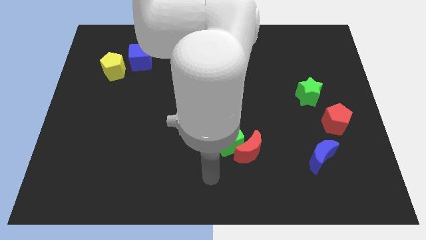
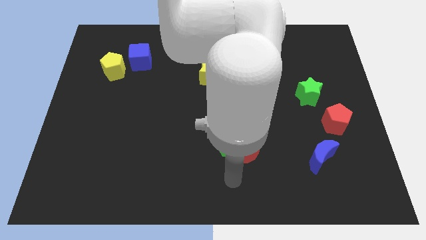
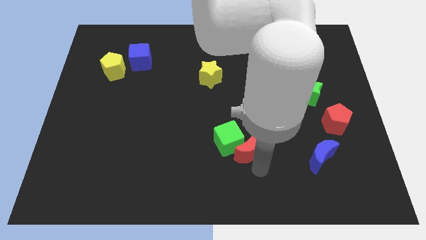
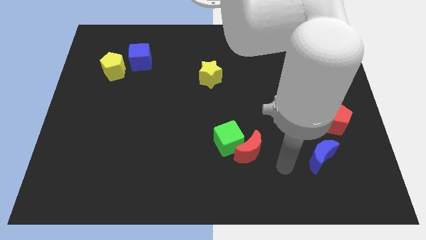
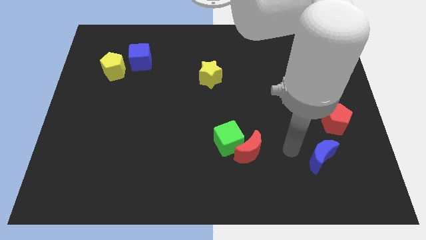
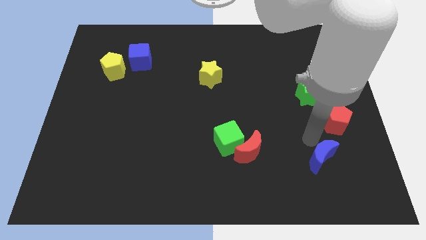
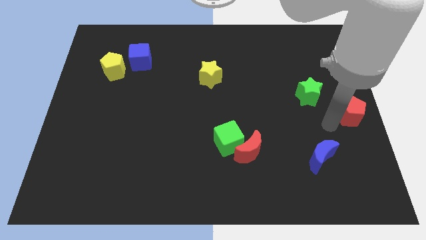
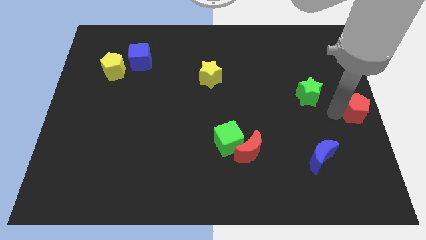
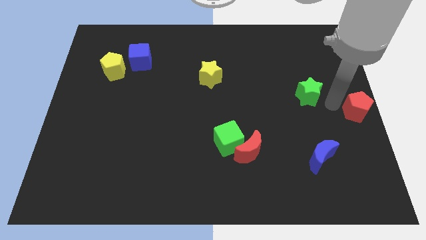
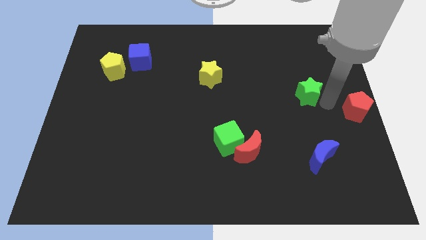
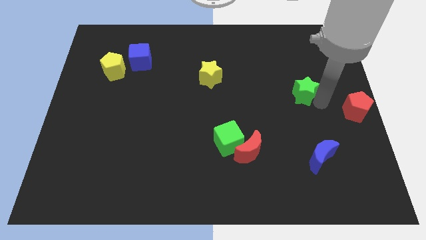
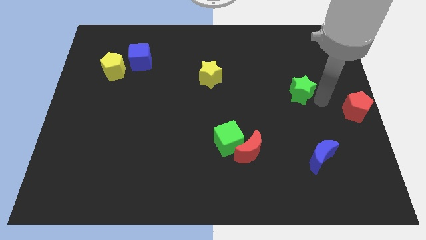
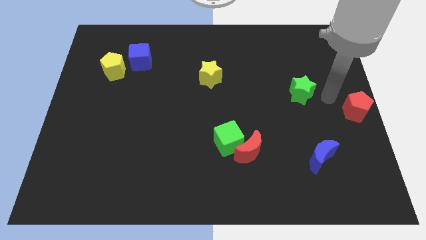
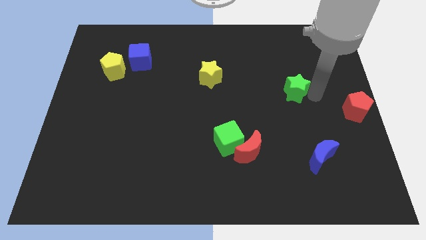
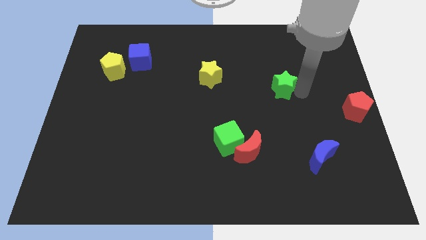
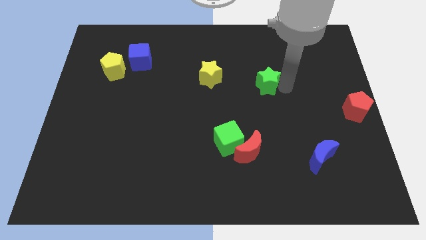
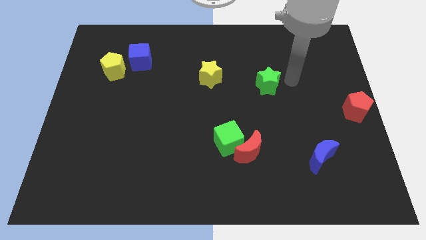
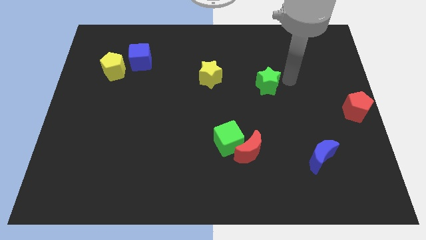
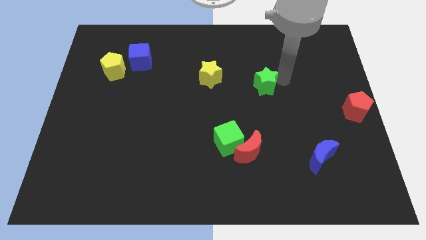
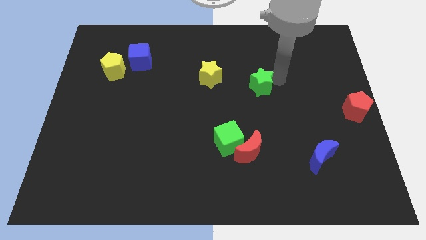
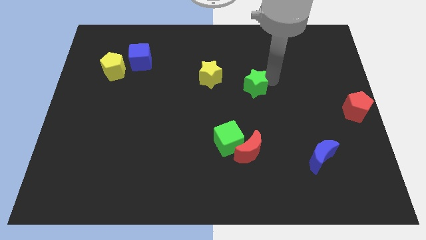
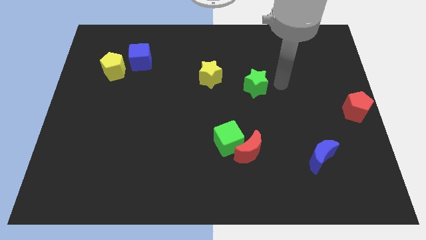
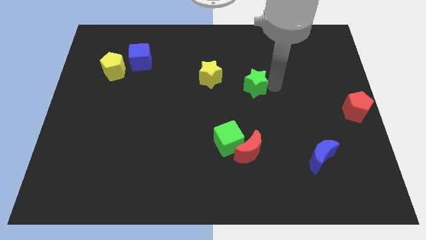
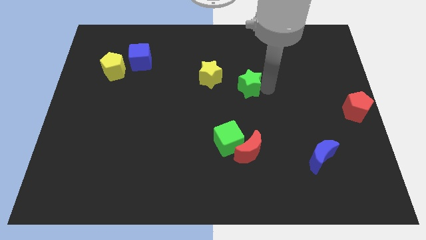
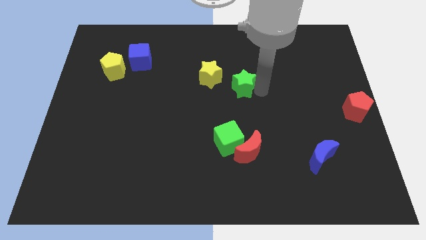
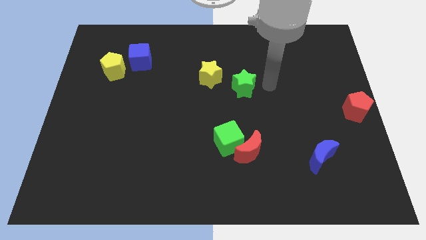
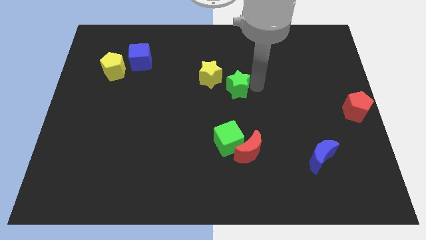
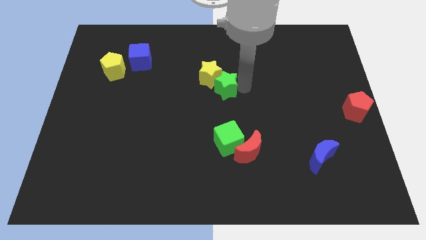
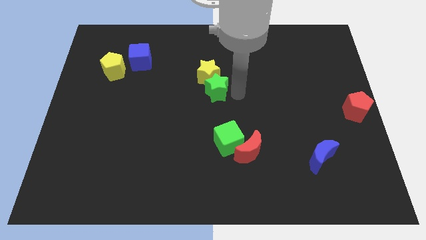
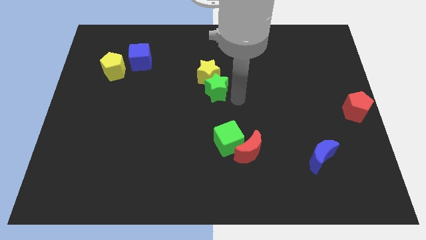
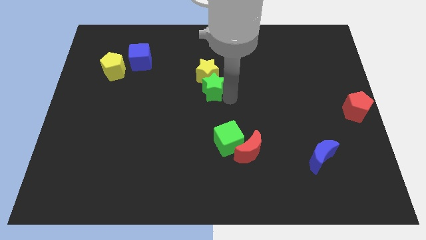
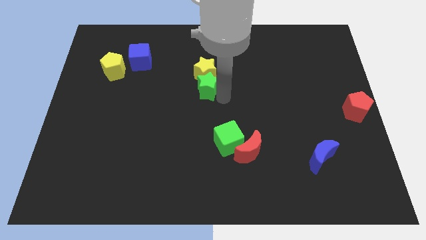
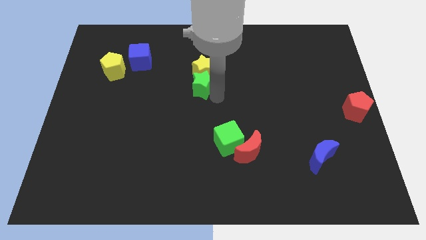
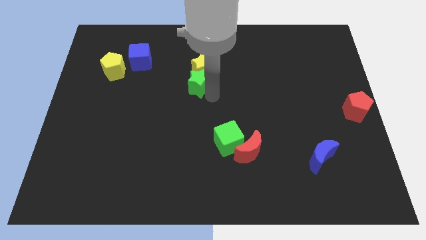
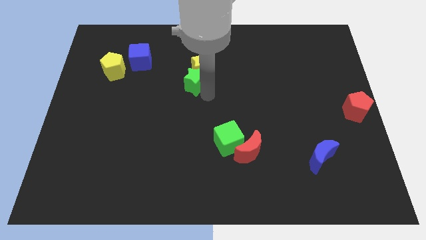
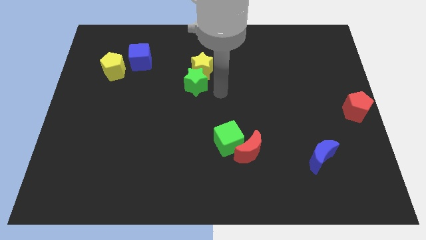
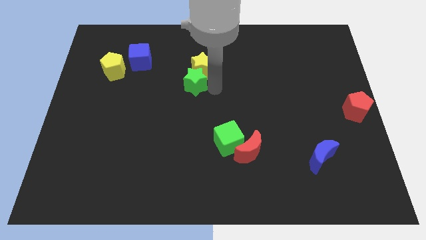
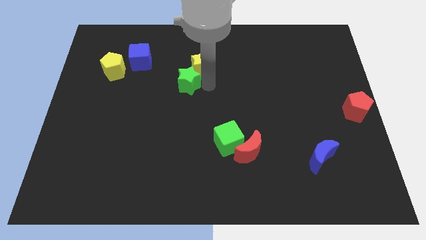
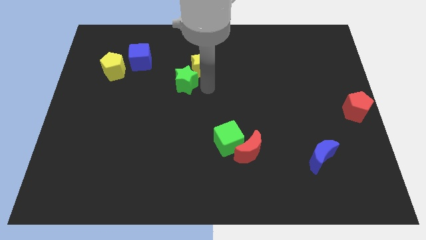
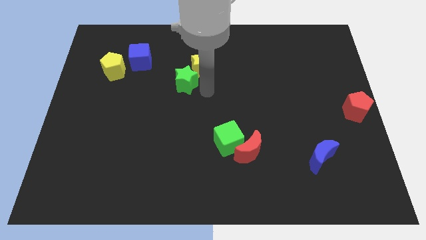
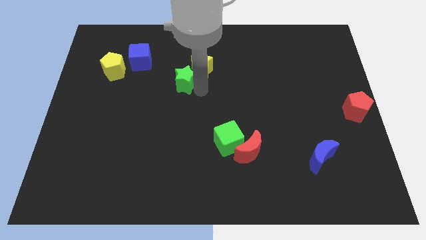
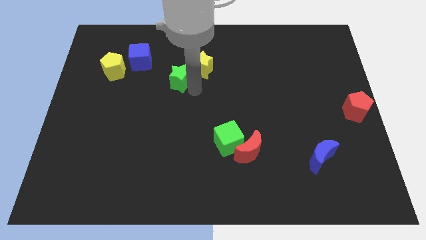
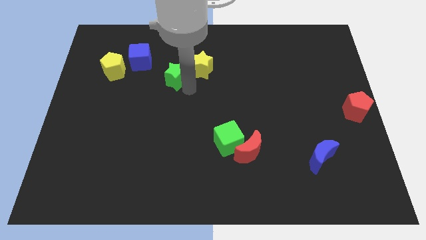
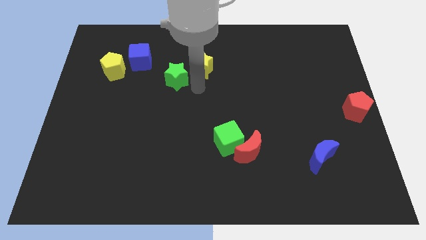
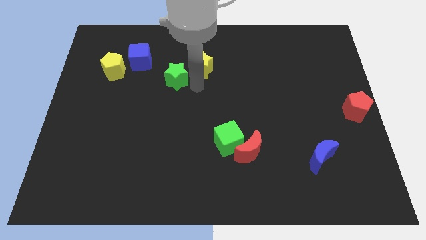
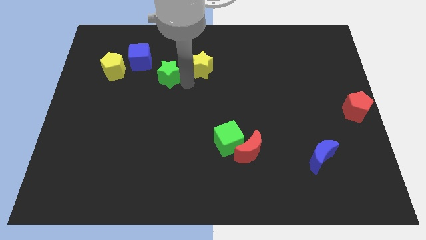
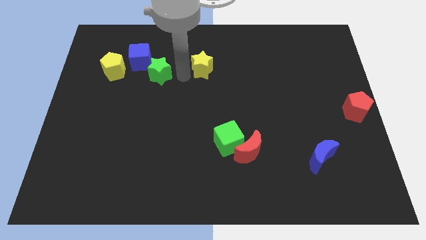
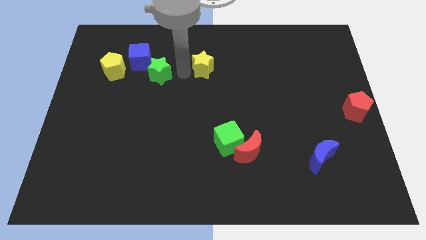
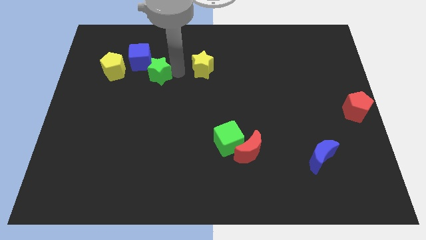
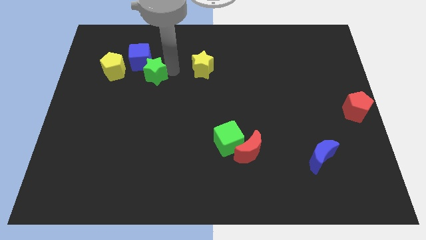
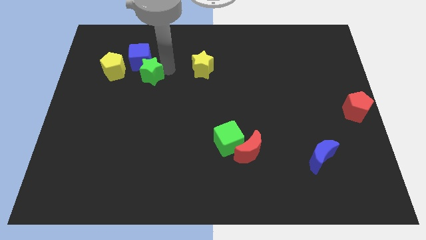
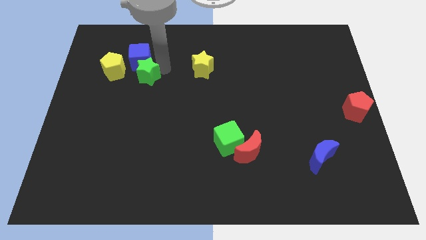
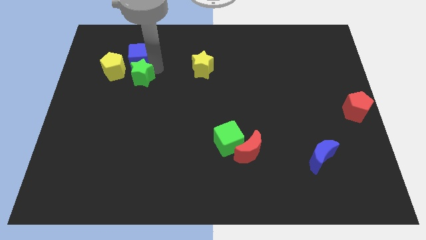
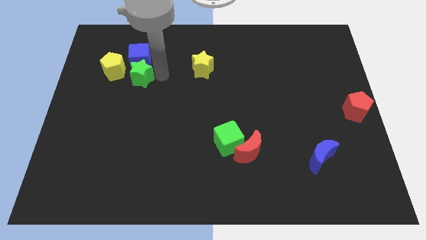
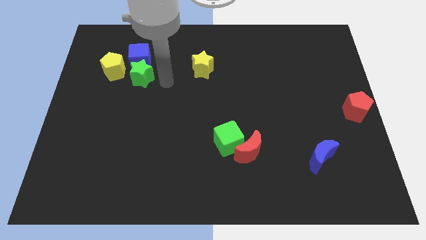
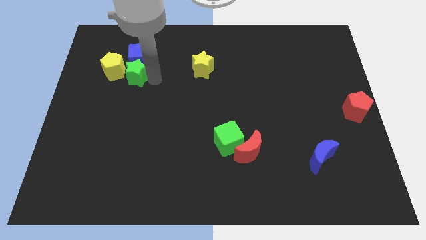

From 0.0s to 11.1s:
put the green star to the yellow pentagon
